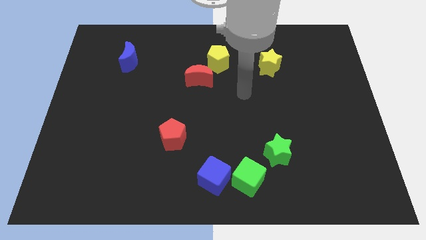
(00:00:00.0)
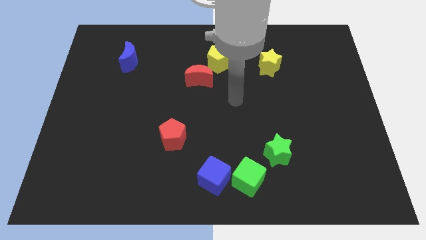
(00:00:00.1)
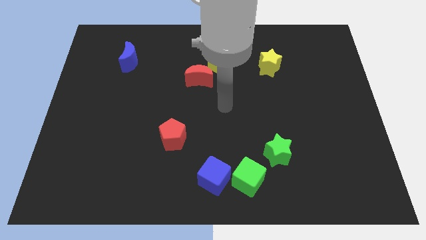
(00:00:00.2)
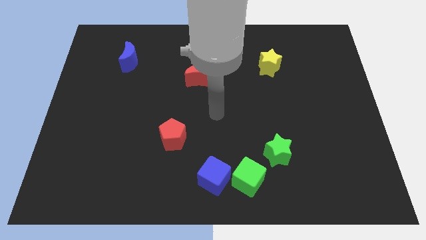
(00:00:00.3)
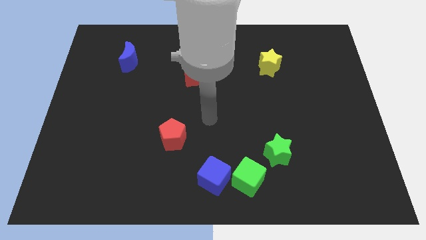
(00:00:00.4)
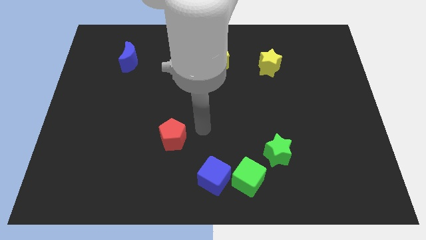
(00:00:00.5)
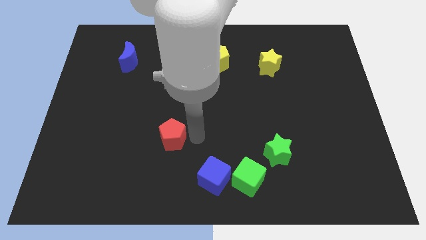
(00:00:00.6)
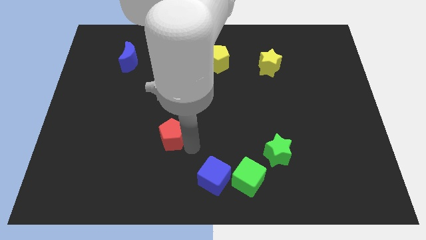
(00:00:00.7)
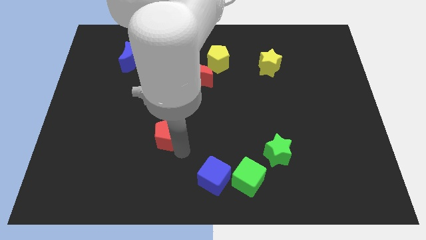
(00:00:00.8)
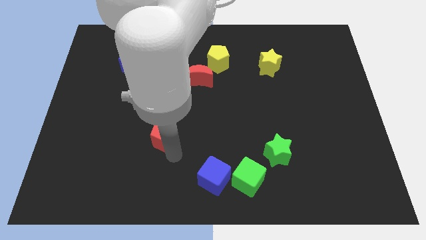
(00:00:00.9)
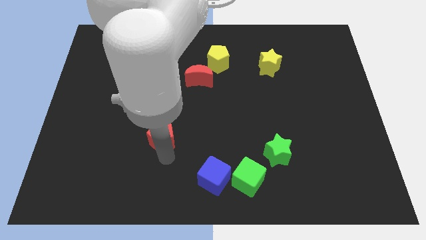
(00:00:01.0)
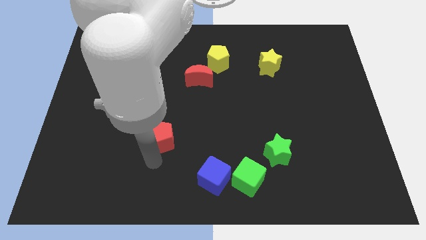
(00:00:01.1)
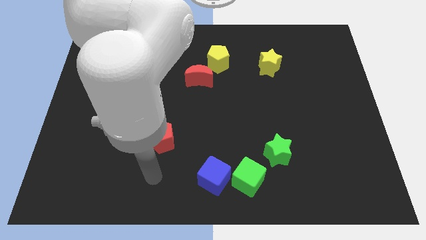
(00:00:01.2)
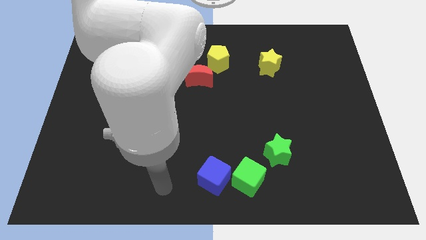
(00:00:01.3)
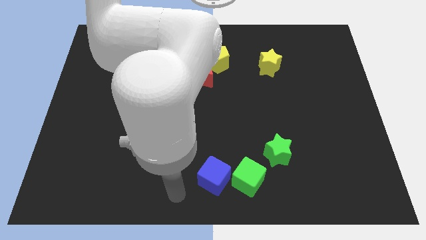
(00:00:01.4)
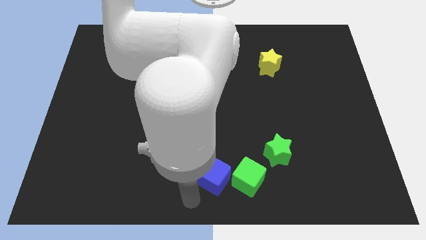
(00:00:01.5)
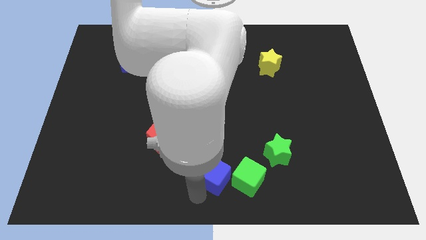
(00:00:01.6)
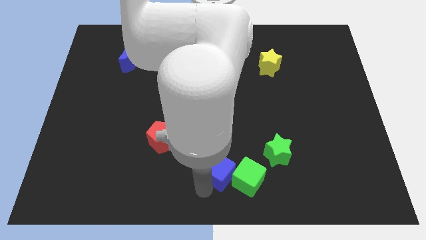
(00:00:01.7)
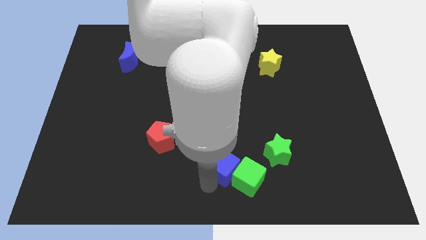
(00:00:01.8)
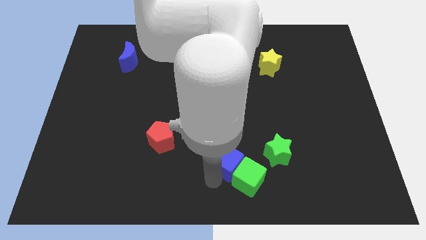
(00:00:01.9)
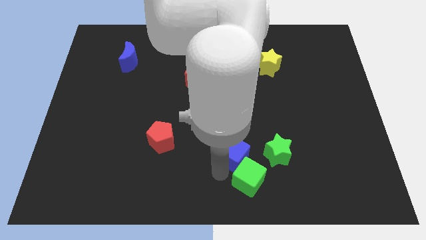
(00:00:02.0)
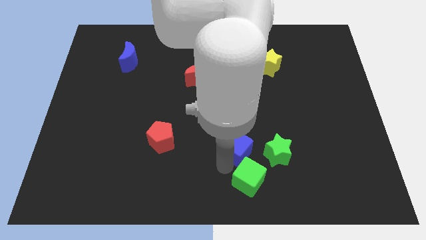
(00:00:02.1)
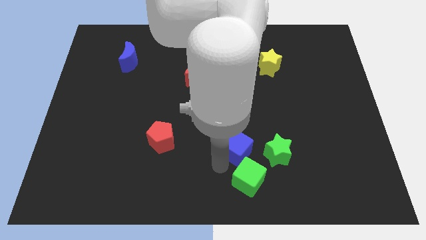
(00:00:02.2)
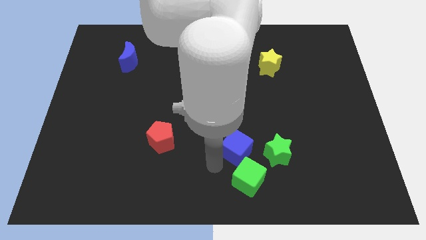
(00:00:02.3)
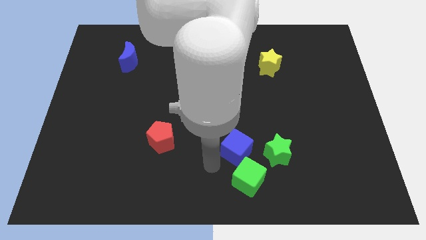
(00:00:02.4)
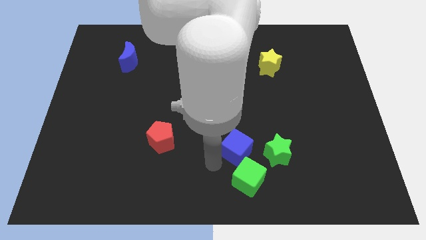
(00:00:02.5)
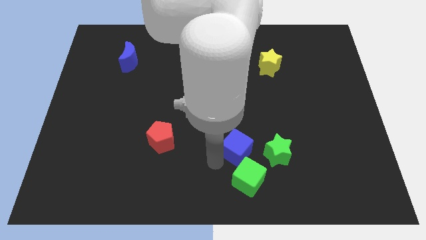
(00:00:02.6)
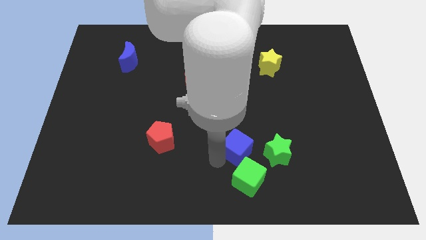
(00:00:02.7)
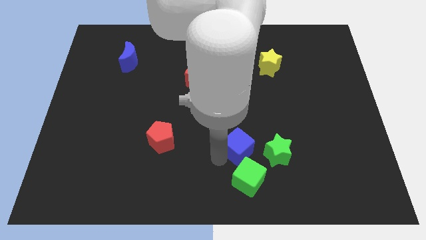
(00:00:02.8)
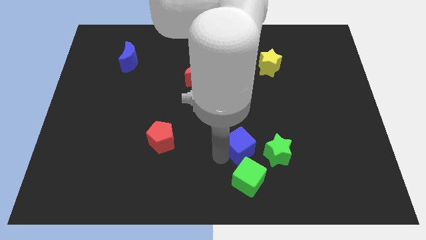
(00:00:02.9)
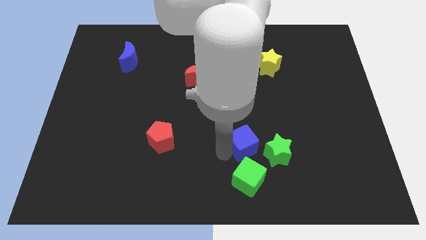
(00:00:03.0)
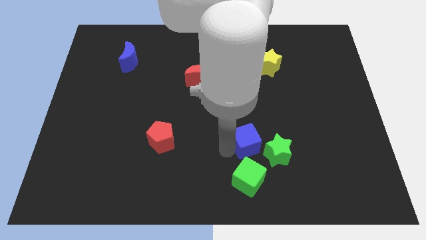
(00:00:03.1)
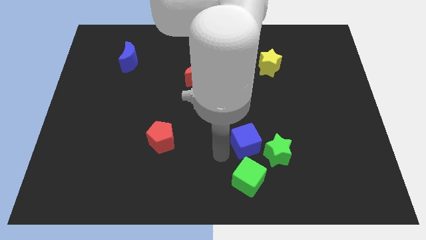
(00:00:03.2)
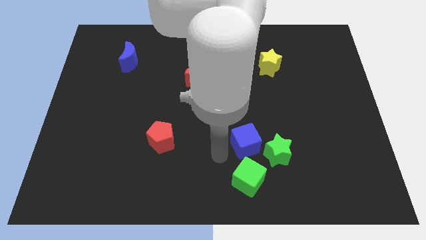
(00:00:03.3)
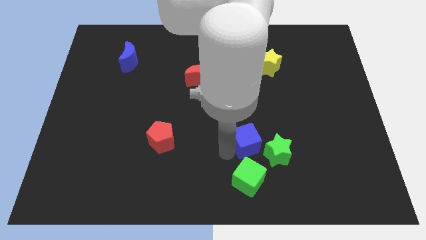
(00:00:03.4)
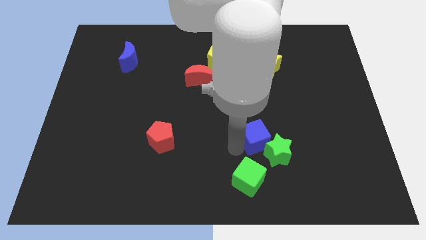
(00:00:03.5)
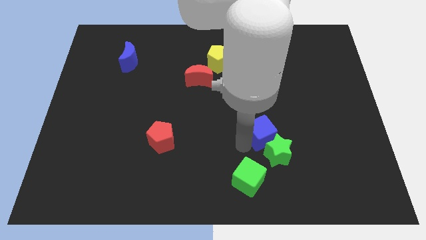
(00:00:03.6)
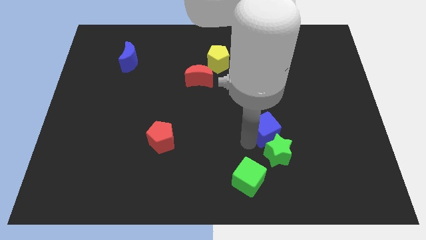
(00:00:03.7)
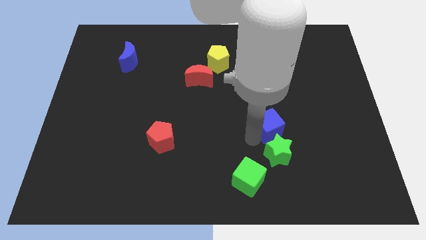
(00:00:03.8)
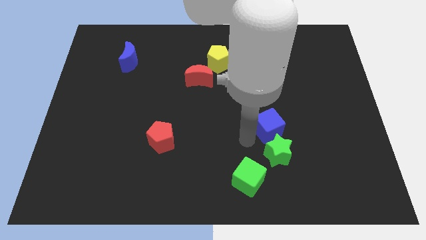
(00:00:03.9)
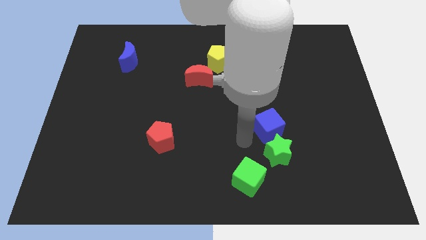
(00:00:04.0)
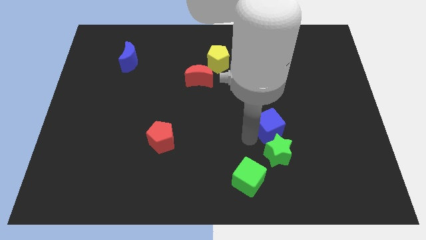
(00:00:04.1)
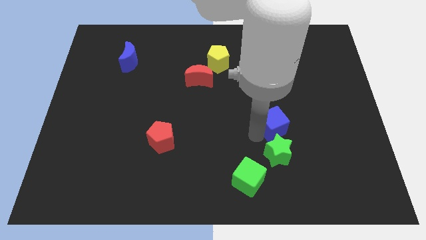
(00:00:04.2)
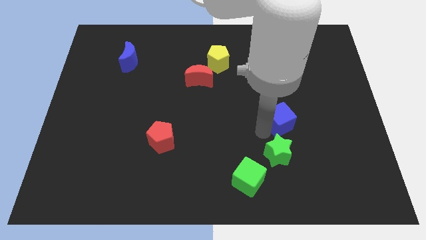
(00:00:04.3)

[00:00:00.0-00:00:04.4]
slide the blue cube upwards and then right

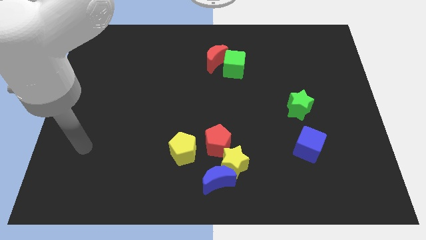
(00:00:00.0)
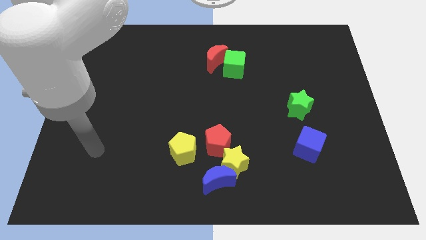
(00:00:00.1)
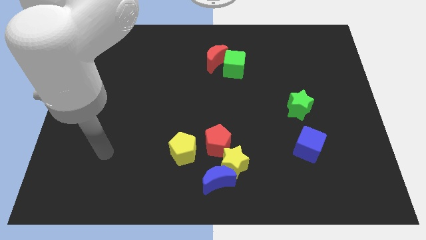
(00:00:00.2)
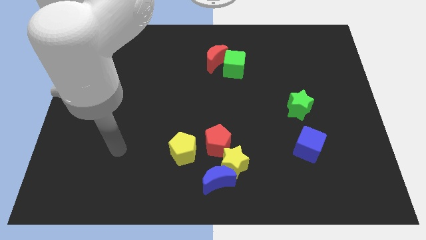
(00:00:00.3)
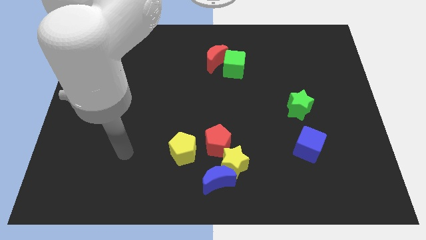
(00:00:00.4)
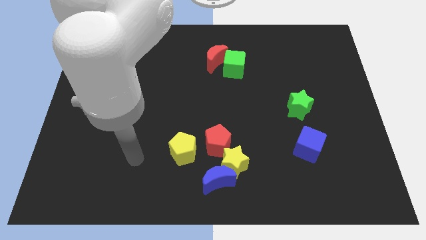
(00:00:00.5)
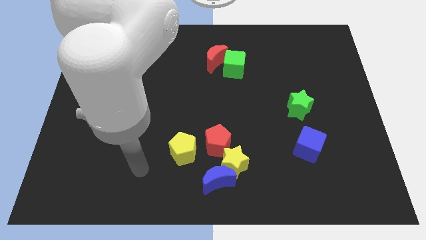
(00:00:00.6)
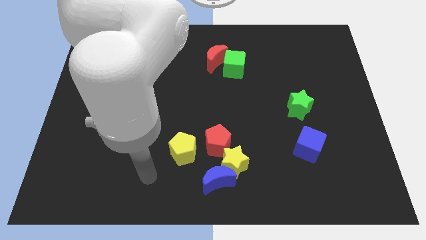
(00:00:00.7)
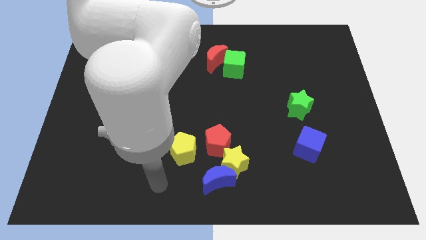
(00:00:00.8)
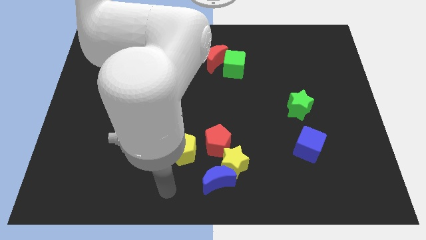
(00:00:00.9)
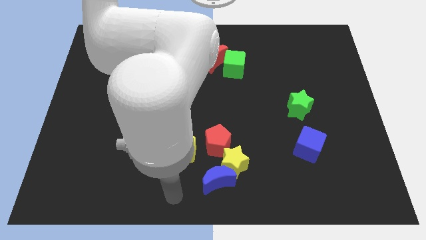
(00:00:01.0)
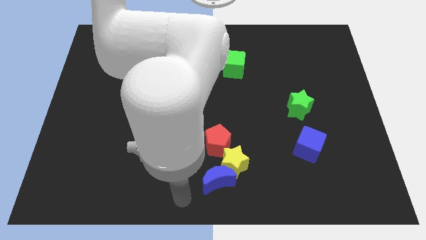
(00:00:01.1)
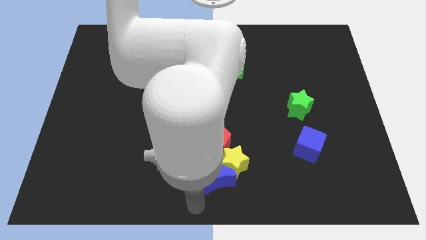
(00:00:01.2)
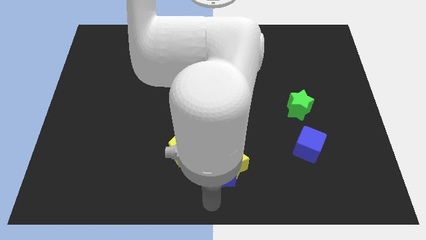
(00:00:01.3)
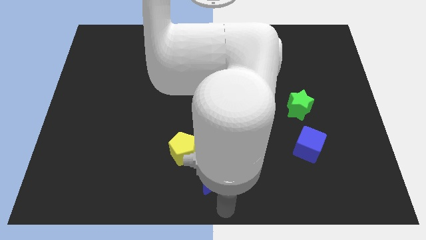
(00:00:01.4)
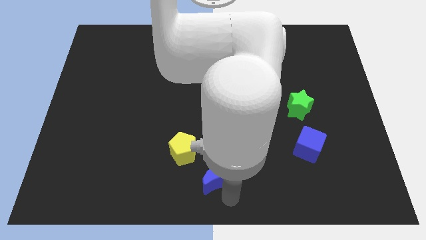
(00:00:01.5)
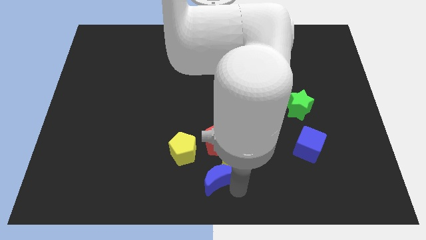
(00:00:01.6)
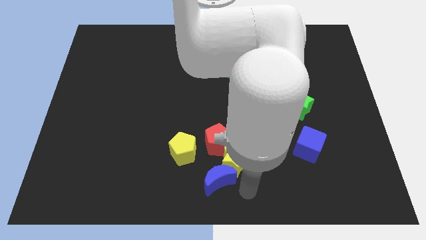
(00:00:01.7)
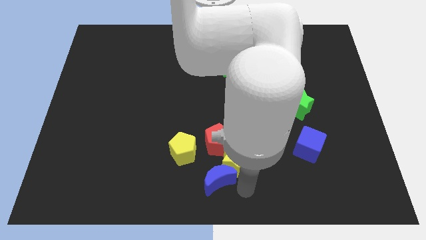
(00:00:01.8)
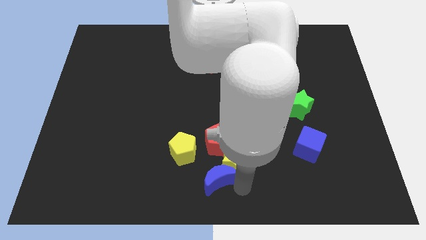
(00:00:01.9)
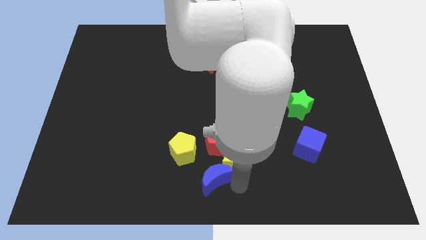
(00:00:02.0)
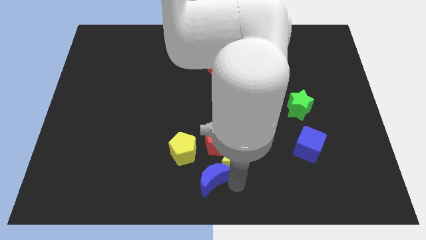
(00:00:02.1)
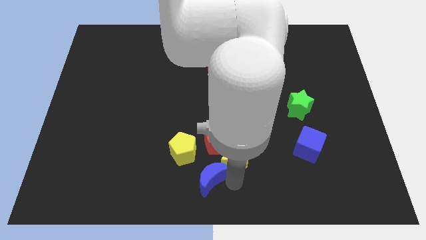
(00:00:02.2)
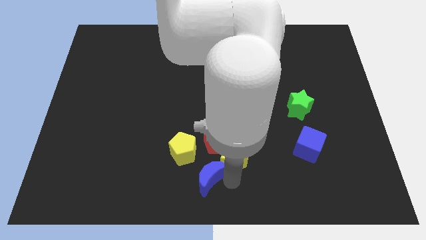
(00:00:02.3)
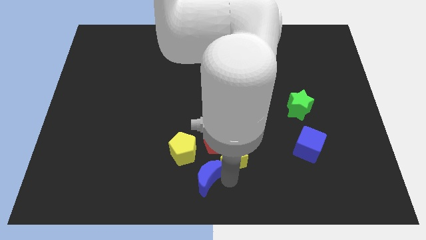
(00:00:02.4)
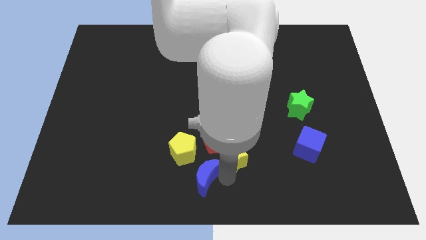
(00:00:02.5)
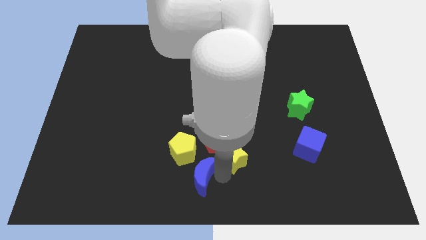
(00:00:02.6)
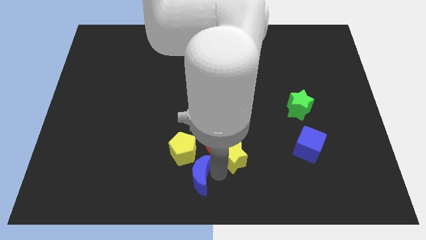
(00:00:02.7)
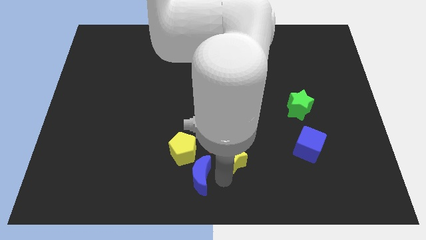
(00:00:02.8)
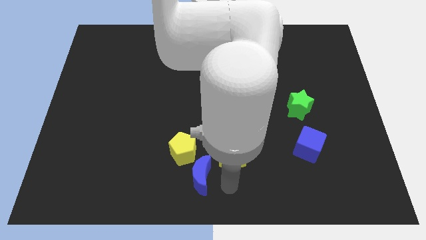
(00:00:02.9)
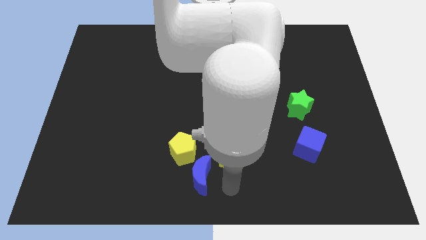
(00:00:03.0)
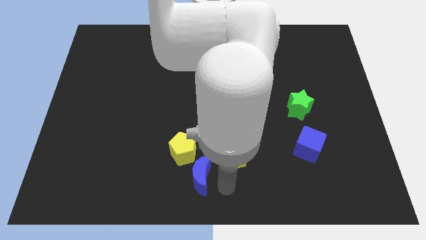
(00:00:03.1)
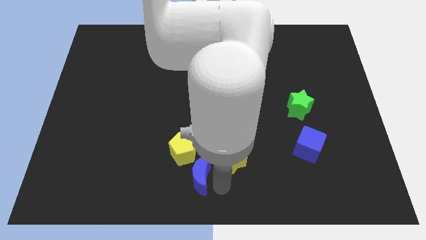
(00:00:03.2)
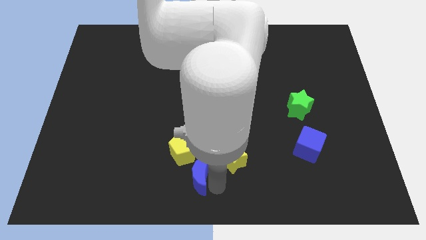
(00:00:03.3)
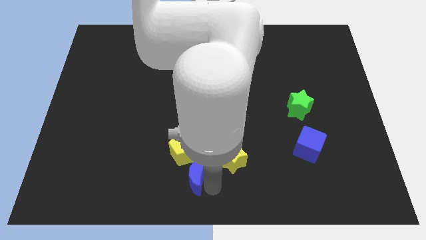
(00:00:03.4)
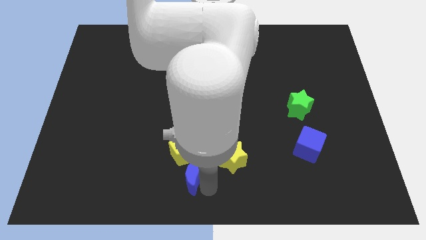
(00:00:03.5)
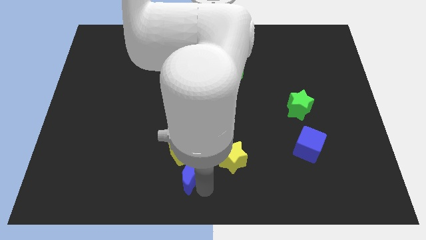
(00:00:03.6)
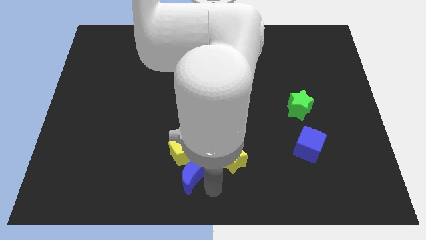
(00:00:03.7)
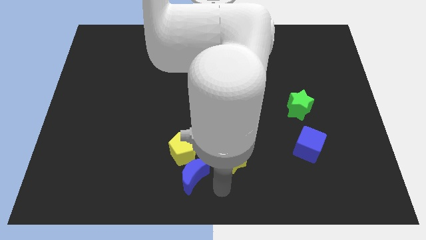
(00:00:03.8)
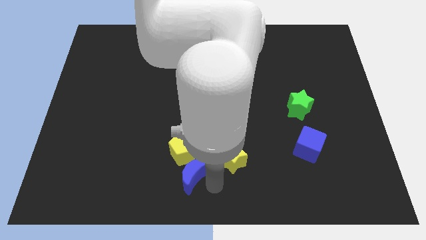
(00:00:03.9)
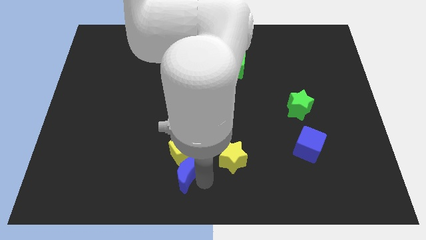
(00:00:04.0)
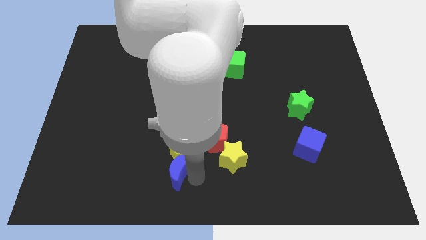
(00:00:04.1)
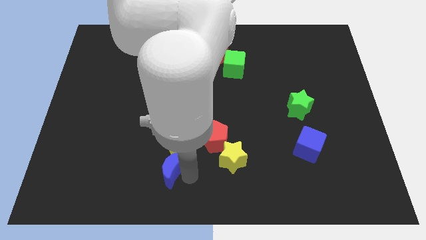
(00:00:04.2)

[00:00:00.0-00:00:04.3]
slide the blue moon up and then to the left a bit
